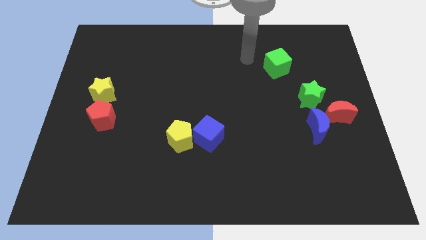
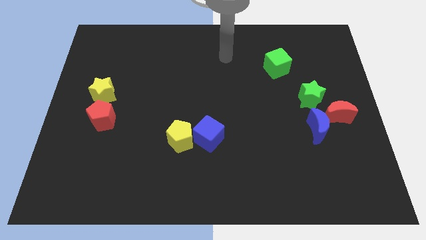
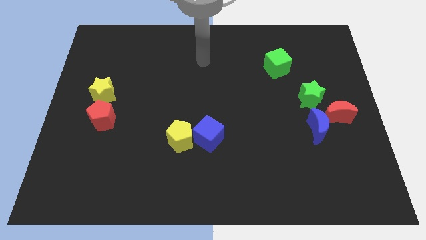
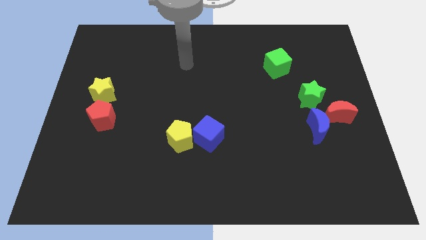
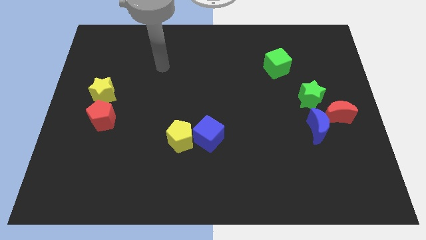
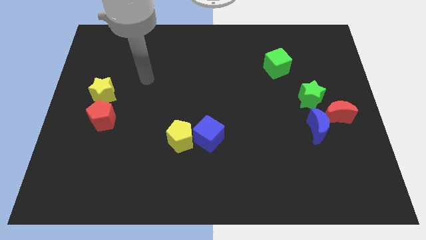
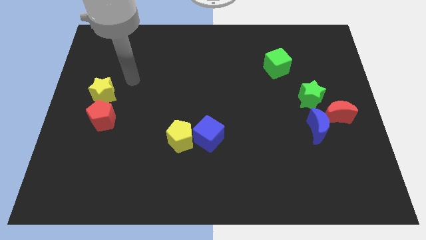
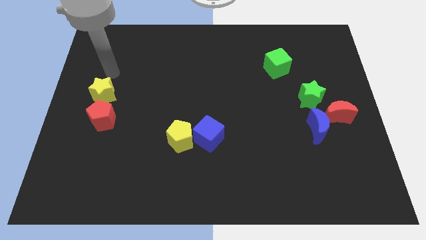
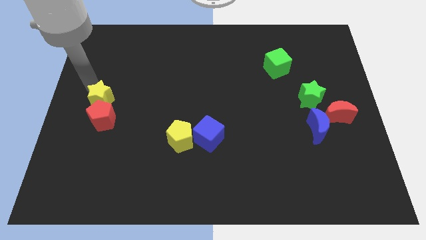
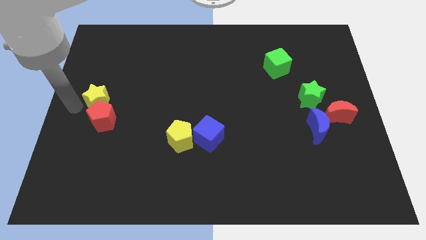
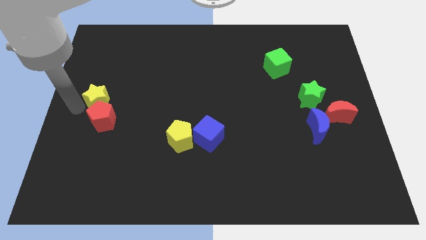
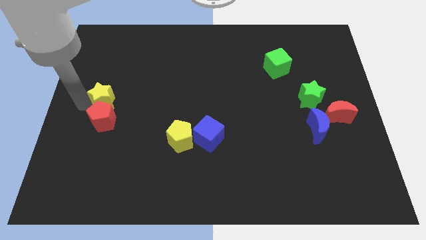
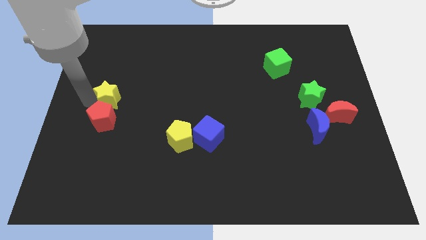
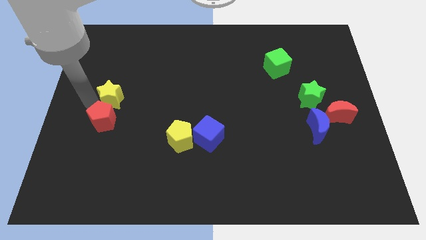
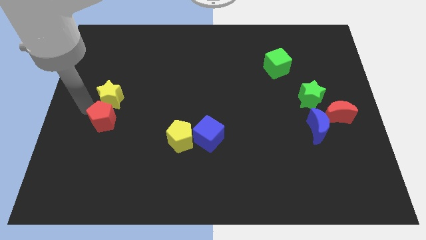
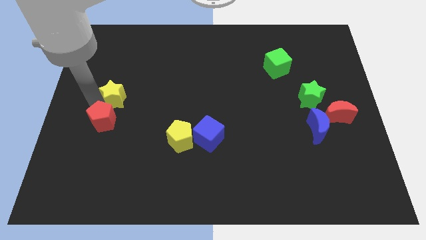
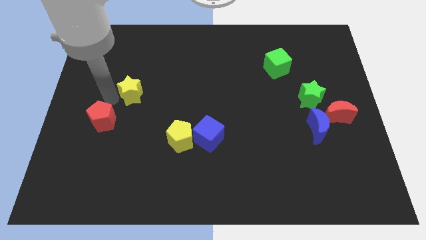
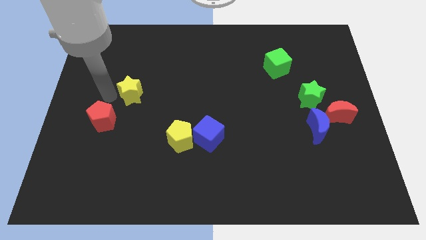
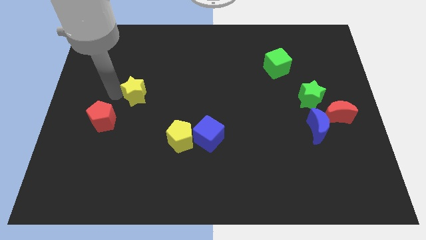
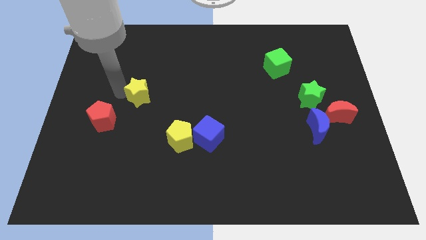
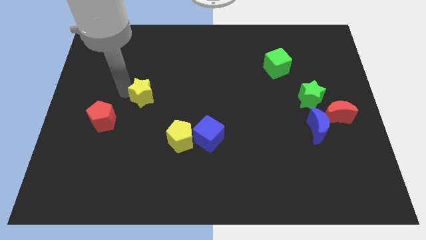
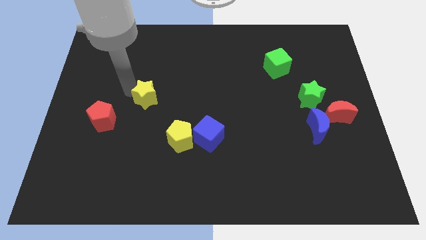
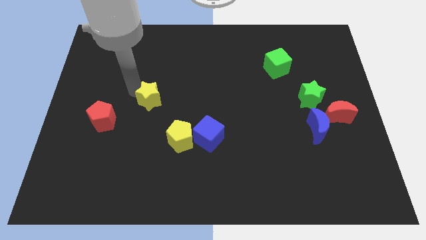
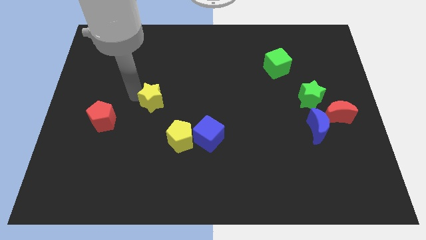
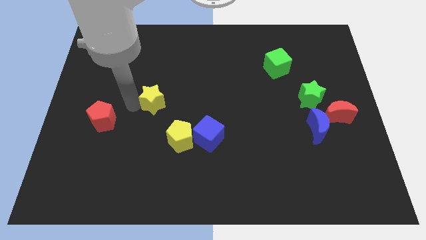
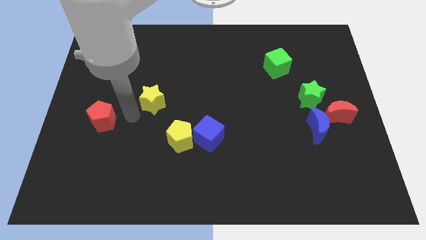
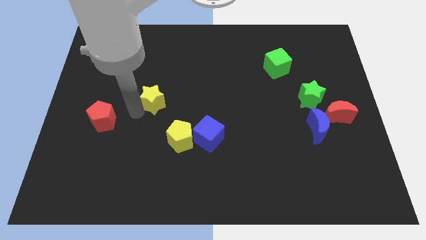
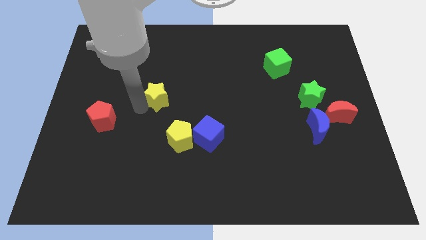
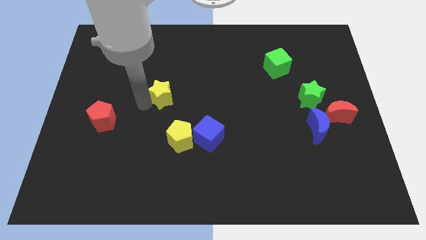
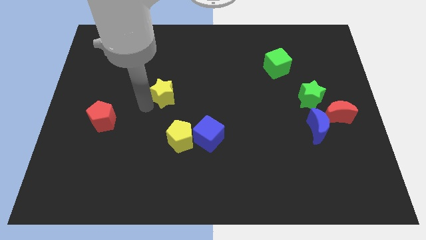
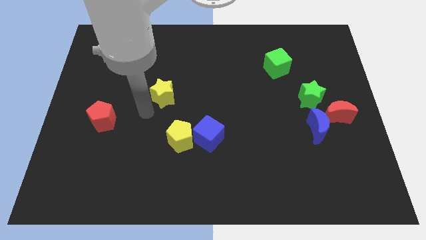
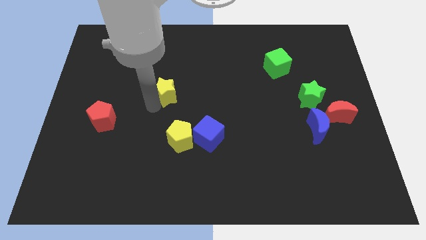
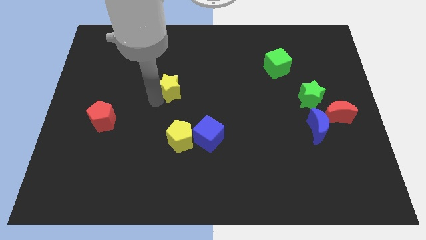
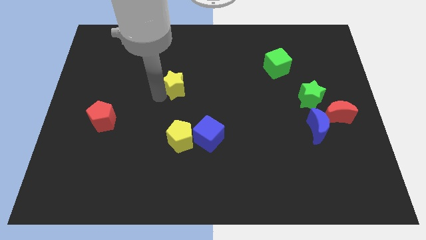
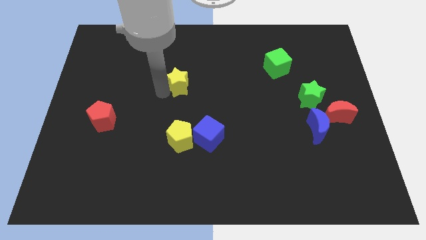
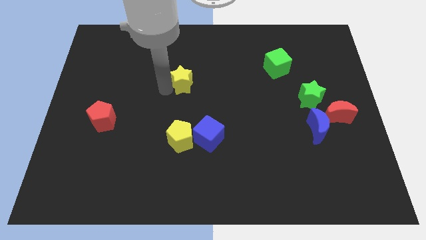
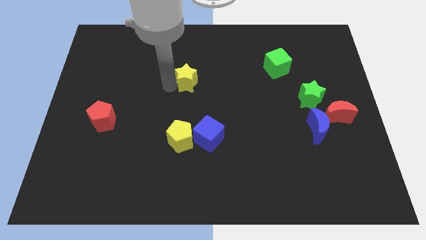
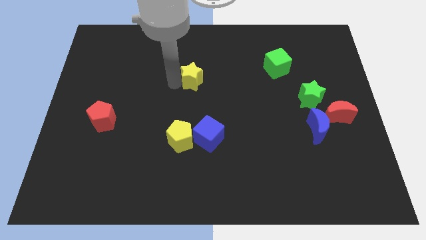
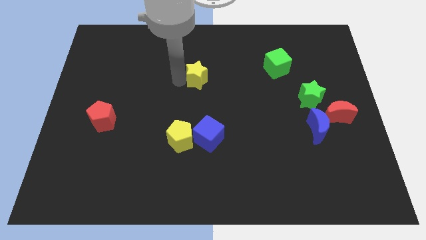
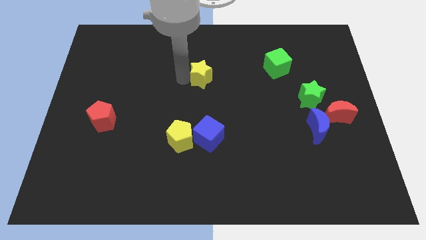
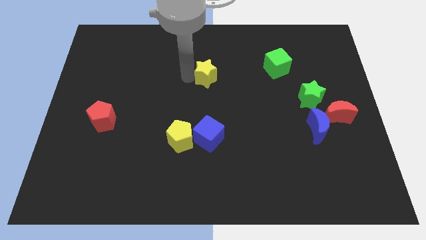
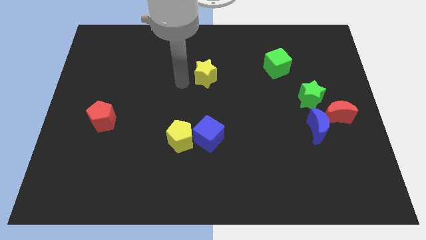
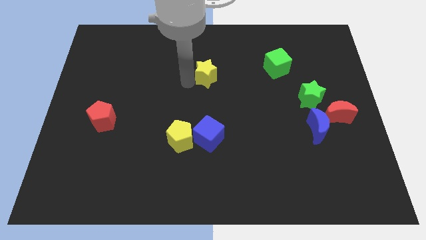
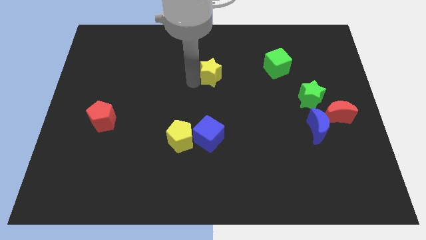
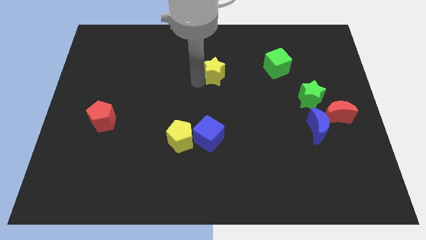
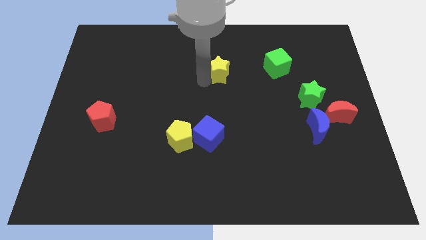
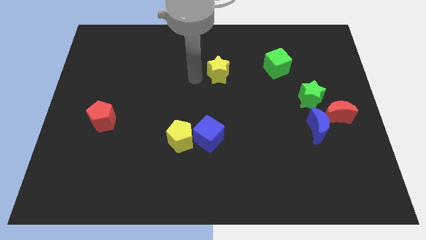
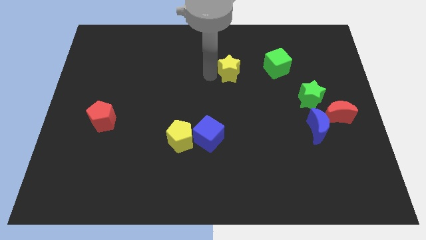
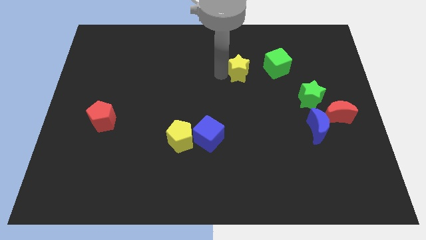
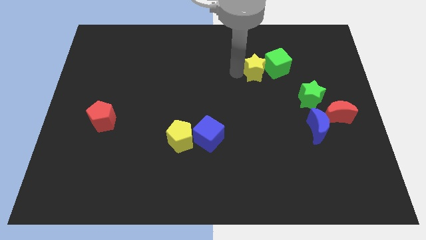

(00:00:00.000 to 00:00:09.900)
slide the yellow star towards the green cube

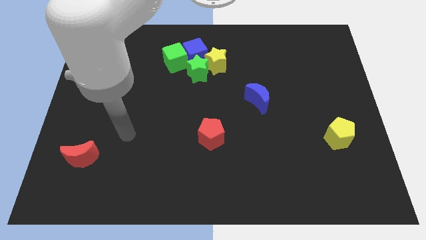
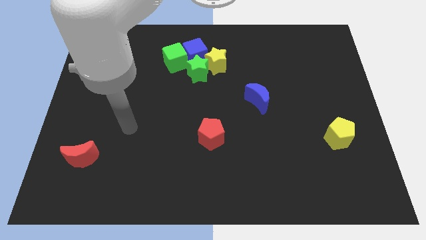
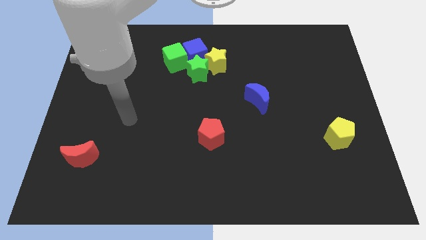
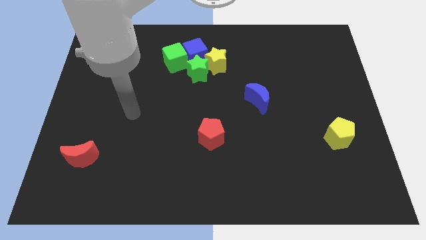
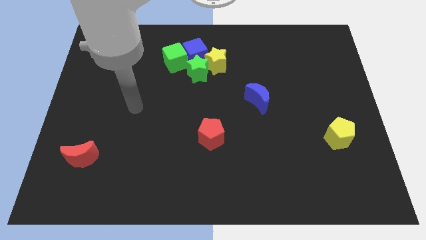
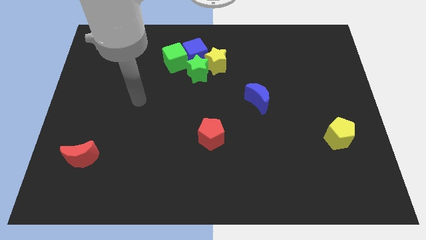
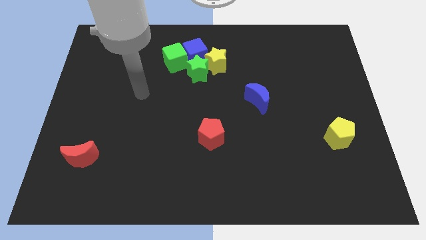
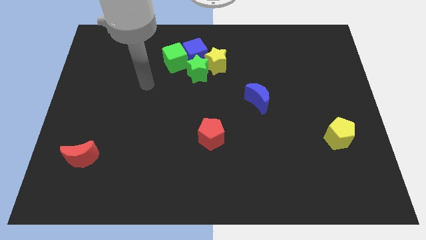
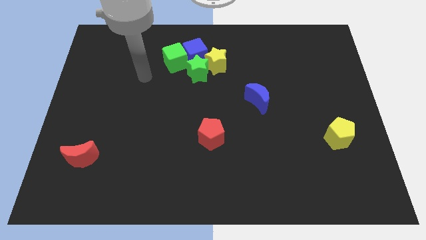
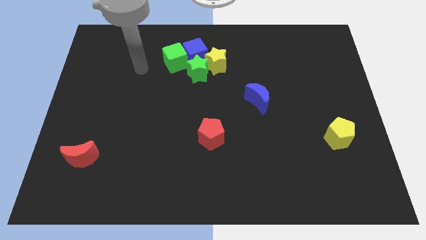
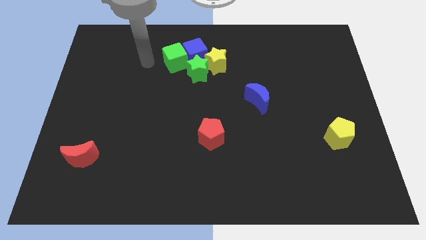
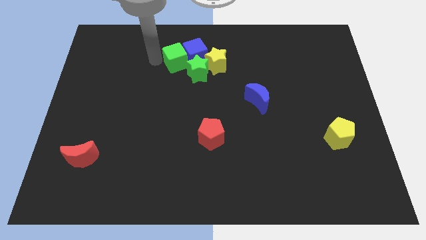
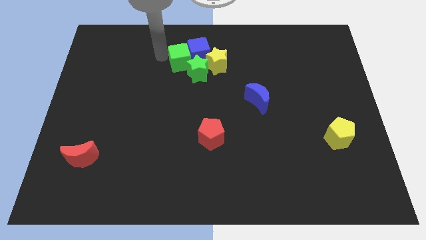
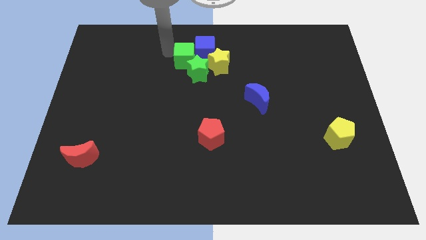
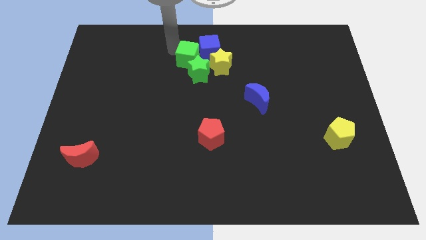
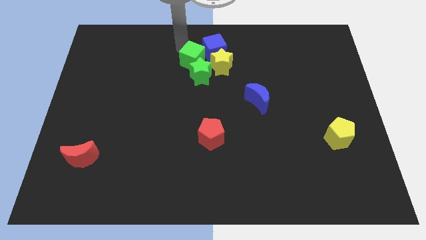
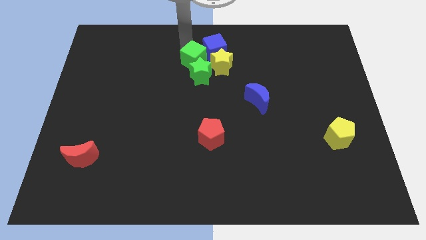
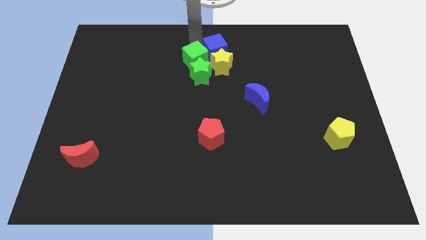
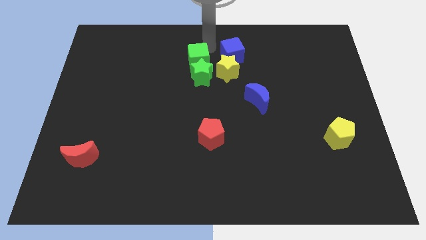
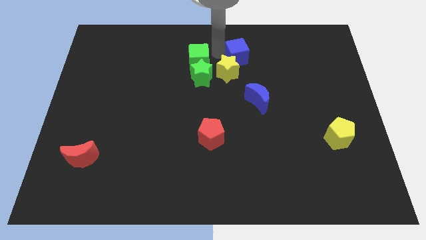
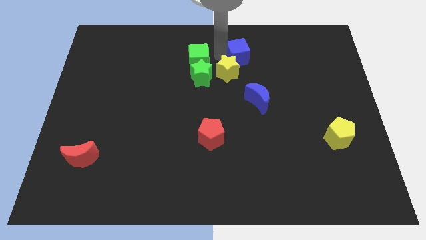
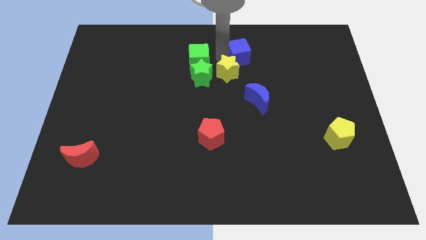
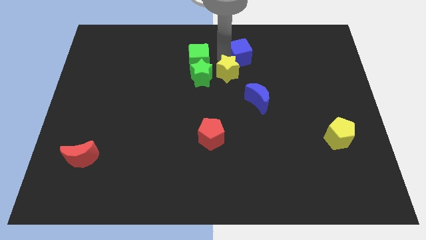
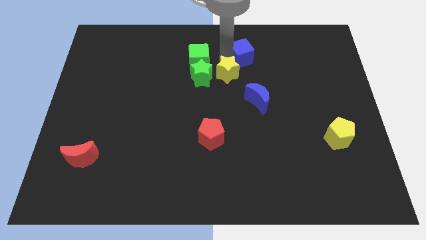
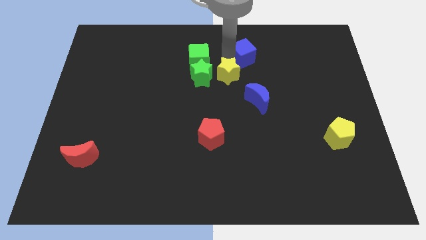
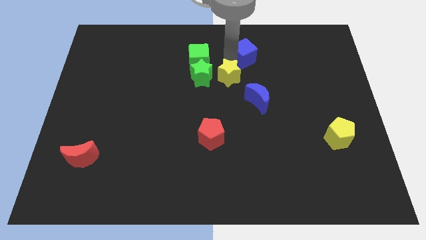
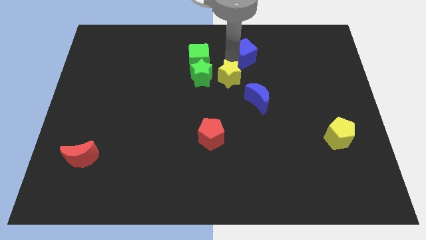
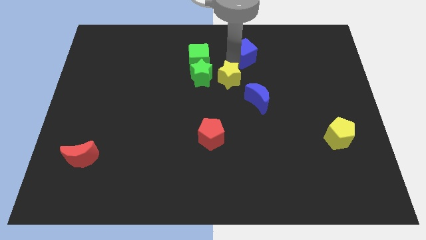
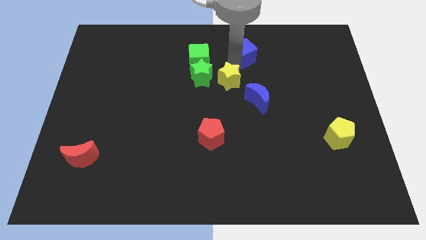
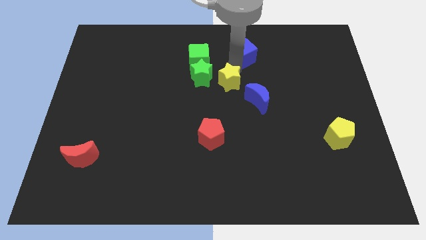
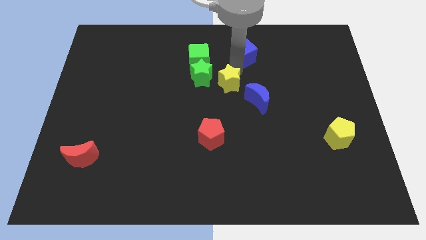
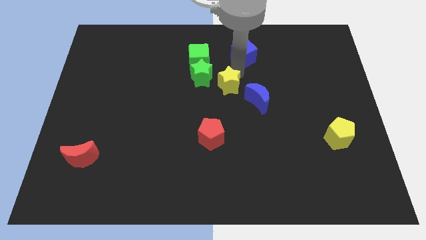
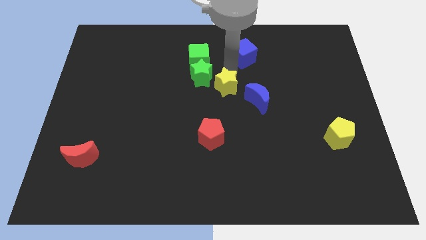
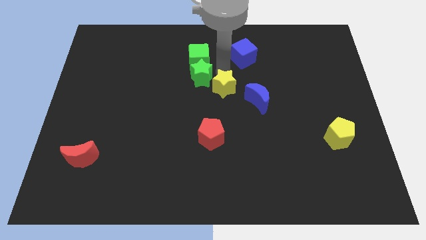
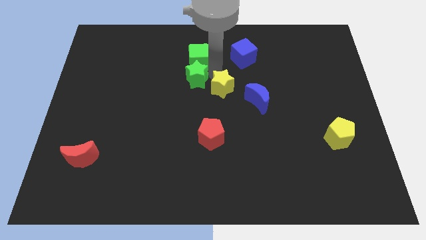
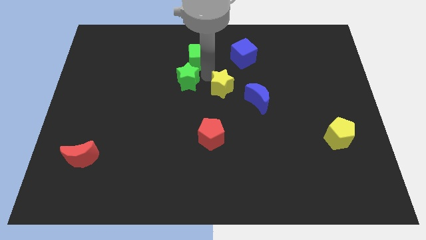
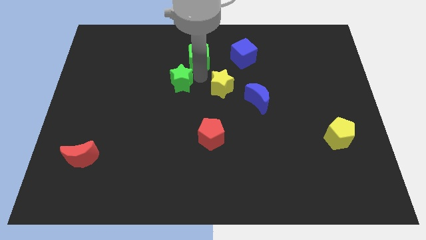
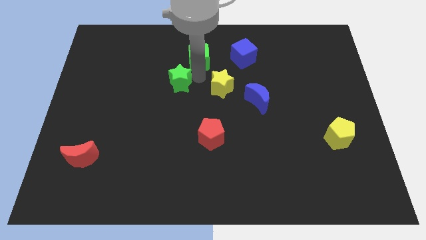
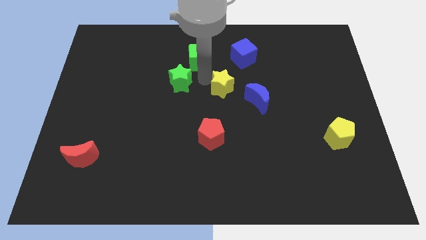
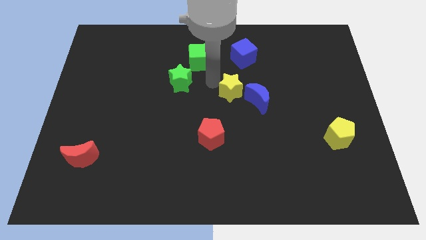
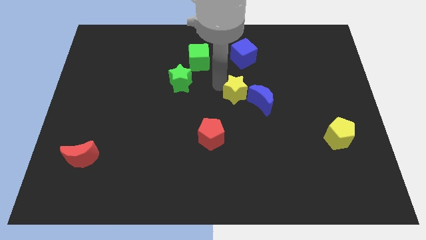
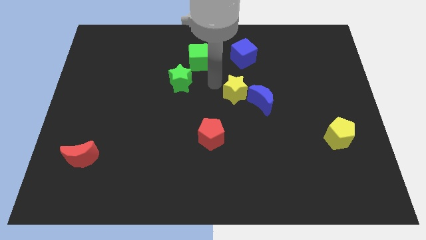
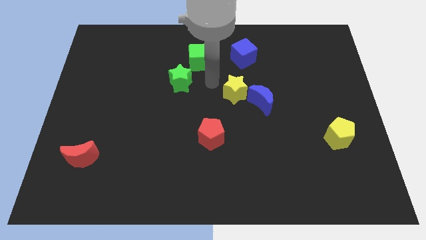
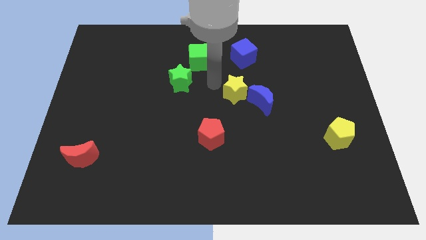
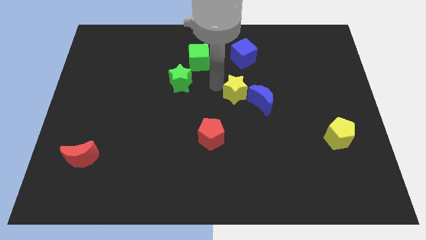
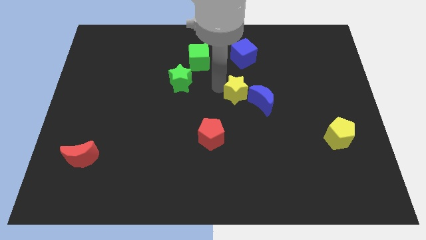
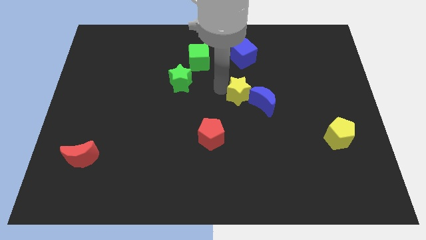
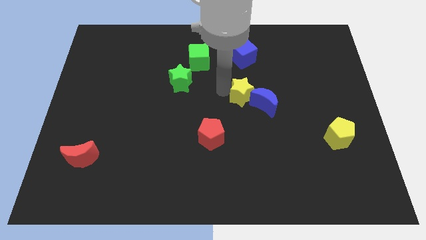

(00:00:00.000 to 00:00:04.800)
push the yellow star towards the blue moon
